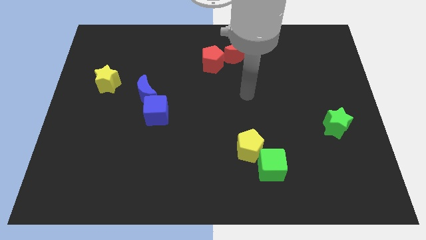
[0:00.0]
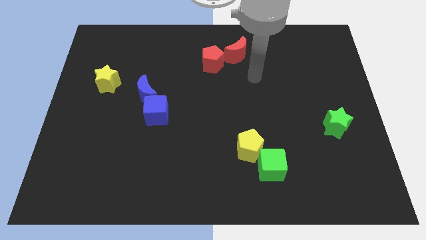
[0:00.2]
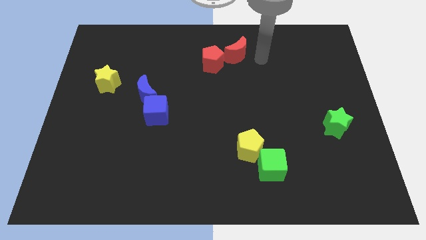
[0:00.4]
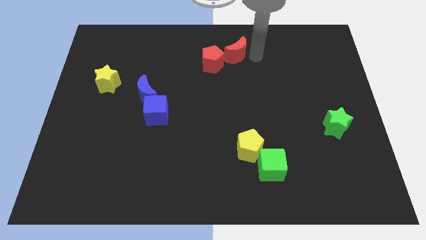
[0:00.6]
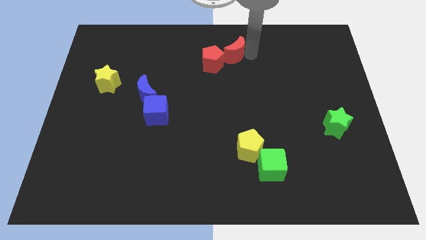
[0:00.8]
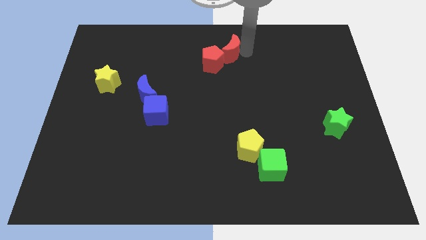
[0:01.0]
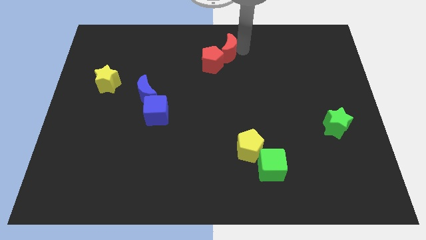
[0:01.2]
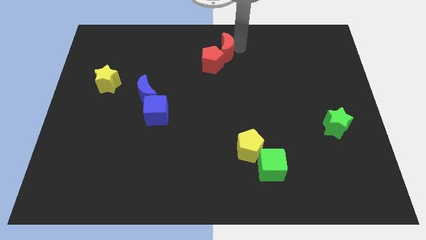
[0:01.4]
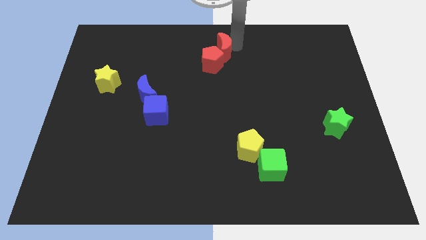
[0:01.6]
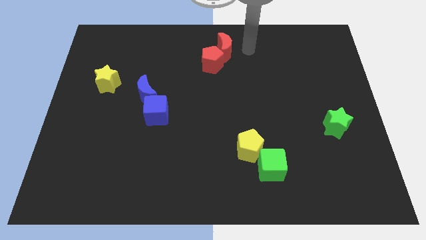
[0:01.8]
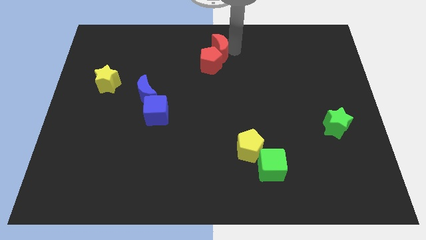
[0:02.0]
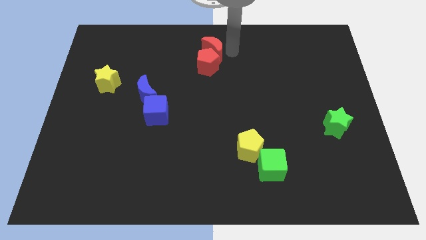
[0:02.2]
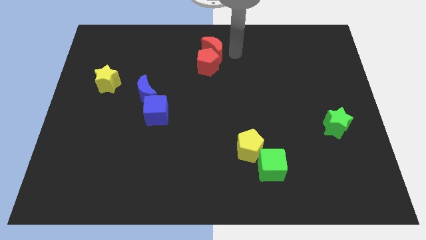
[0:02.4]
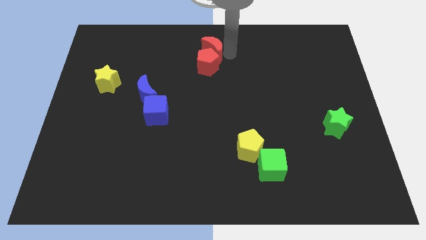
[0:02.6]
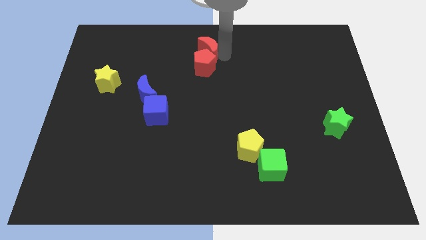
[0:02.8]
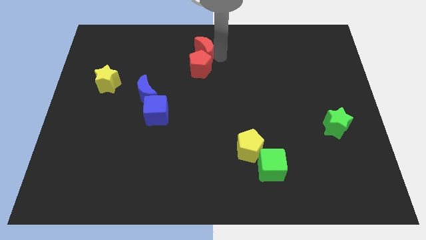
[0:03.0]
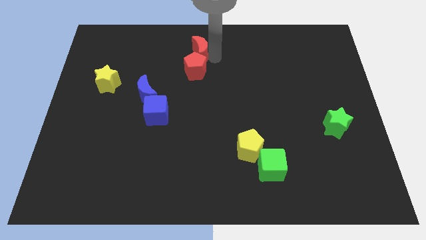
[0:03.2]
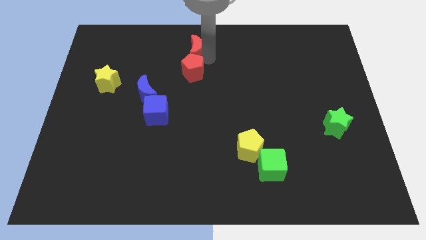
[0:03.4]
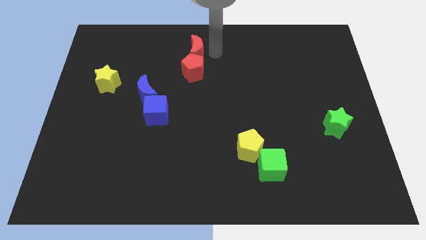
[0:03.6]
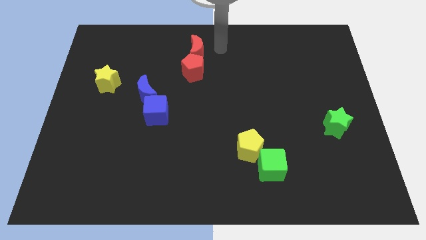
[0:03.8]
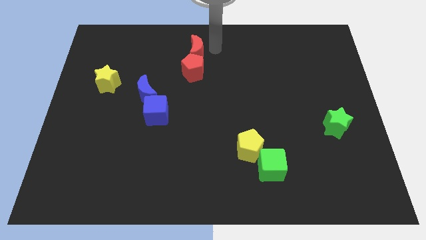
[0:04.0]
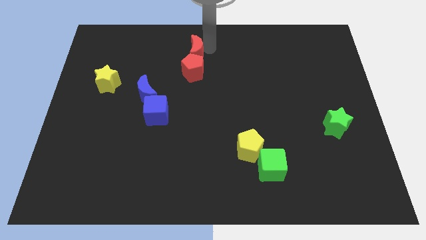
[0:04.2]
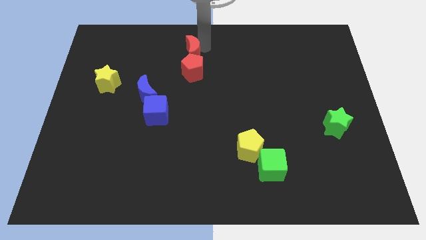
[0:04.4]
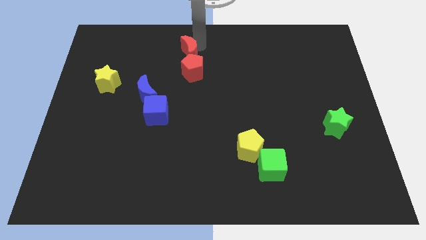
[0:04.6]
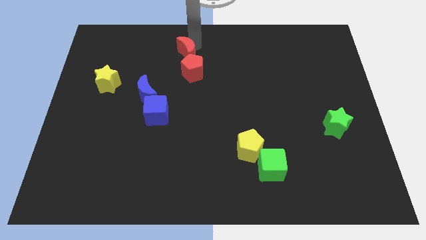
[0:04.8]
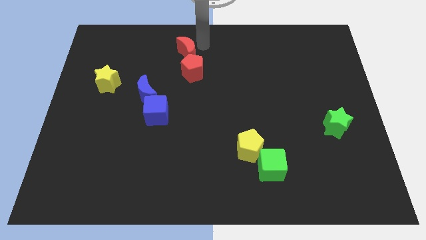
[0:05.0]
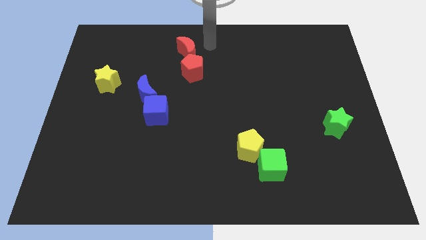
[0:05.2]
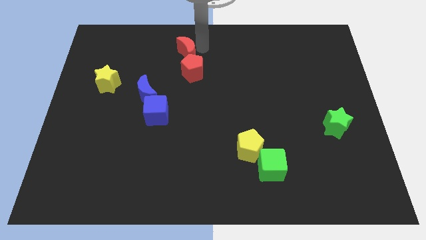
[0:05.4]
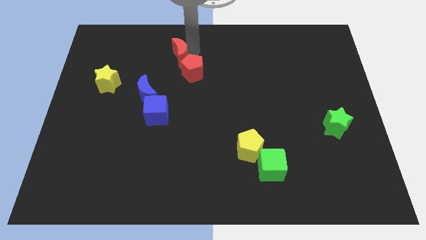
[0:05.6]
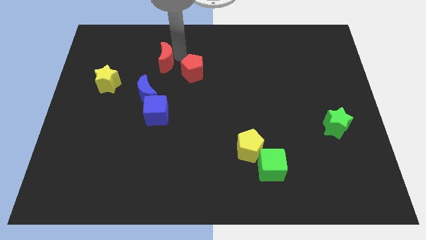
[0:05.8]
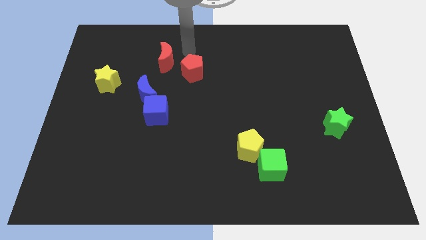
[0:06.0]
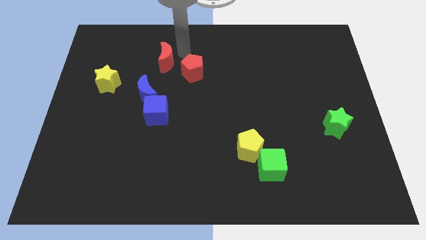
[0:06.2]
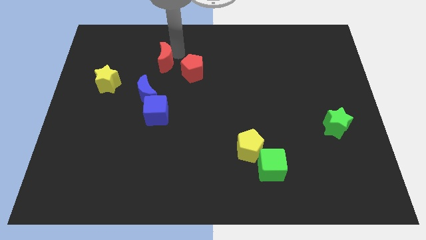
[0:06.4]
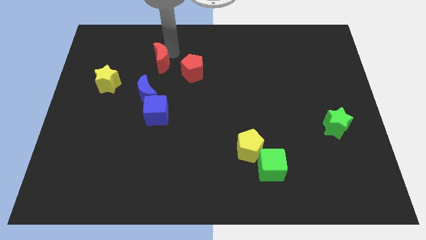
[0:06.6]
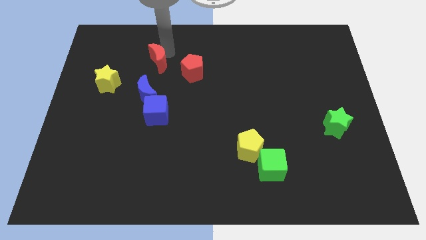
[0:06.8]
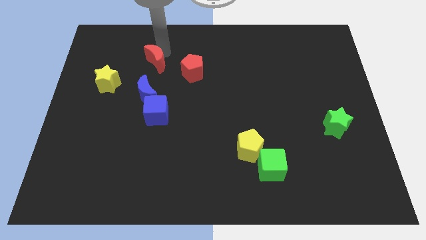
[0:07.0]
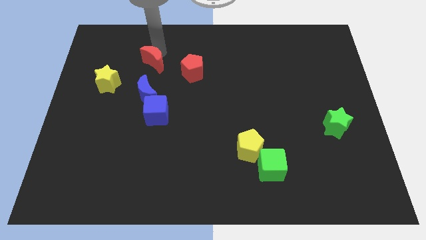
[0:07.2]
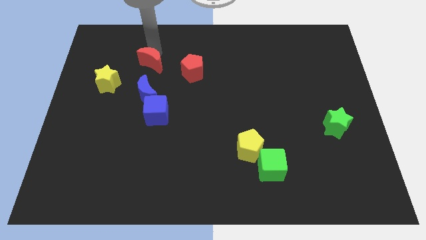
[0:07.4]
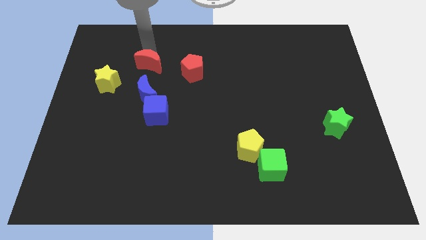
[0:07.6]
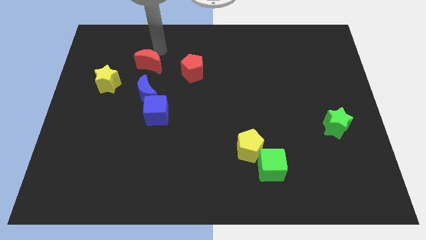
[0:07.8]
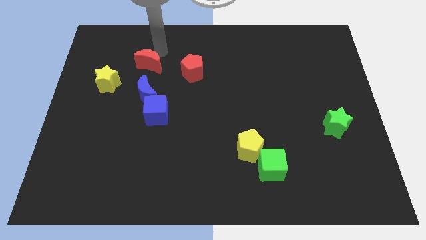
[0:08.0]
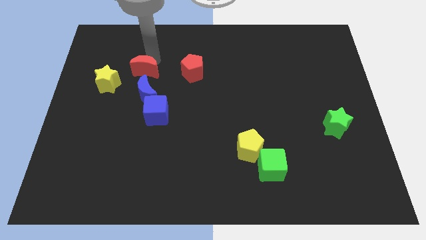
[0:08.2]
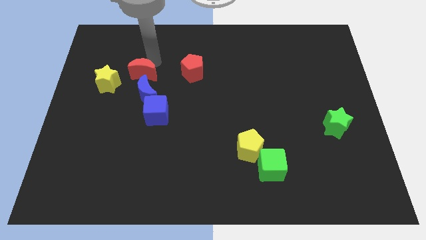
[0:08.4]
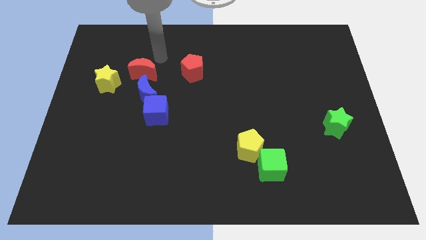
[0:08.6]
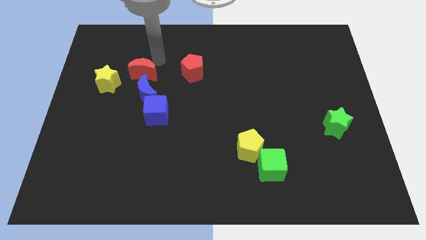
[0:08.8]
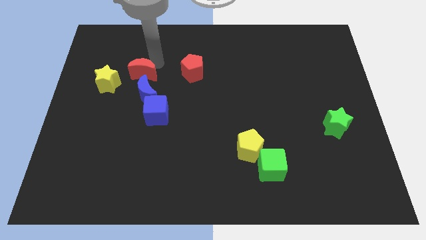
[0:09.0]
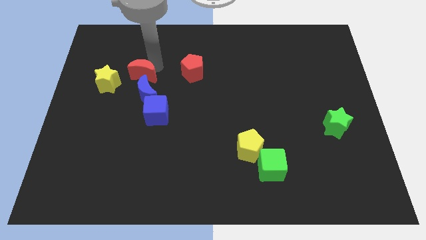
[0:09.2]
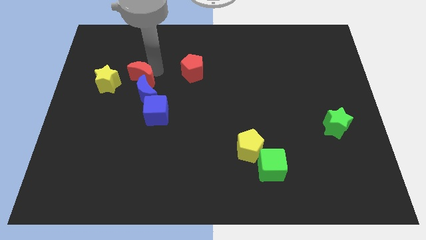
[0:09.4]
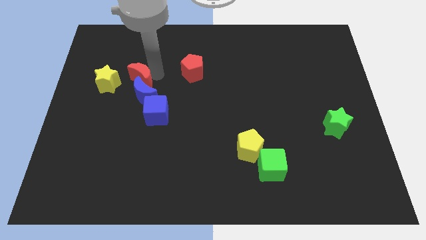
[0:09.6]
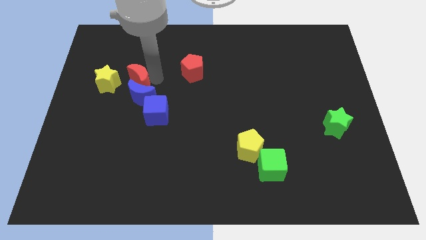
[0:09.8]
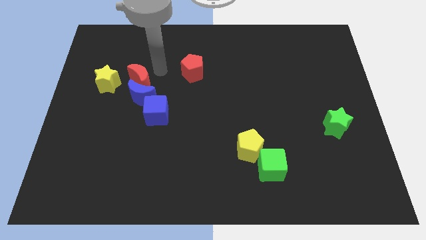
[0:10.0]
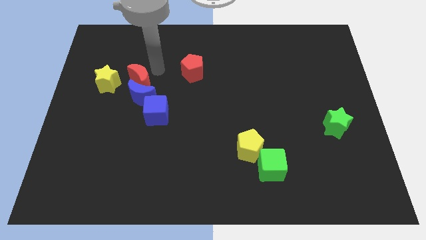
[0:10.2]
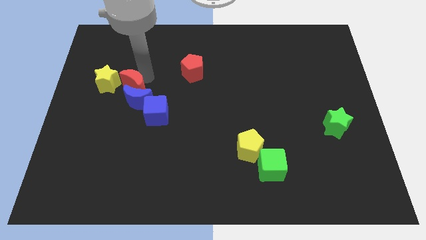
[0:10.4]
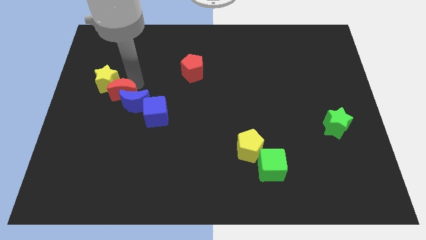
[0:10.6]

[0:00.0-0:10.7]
put the red moon to the bottom of the yellow star

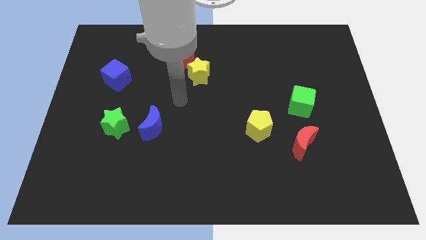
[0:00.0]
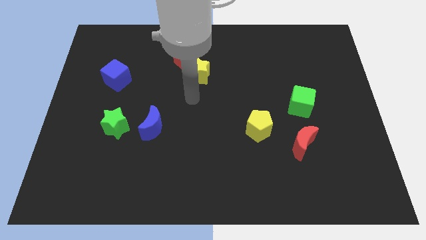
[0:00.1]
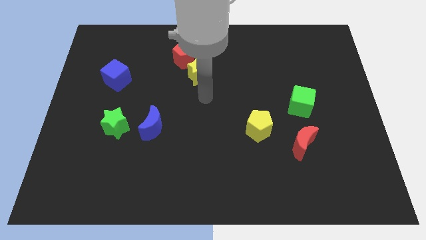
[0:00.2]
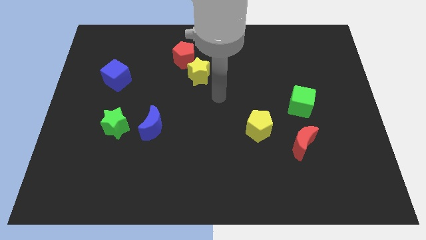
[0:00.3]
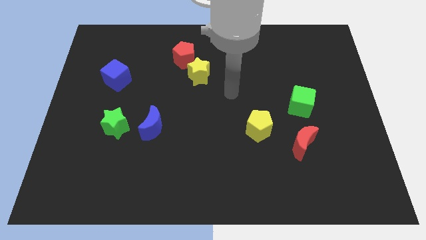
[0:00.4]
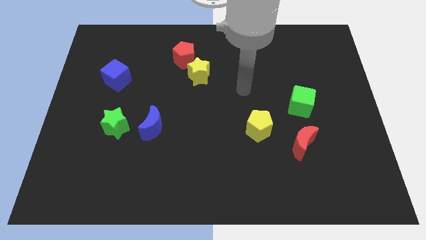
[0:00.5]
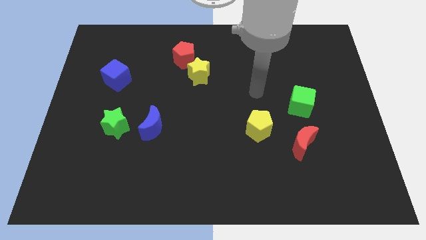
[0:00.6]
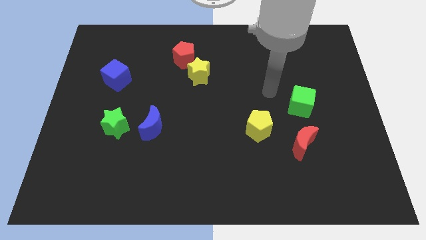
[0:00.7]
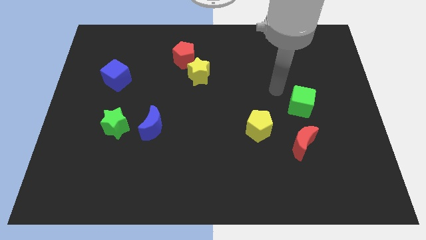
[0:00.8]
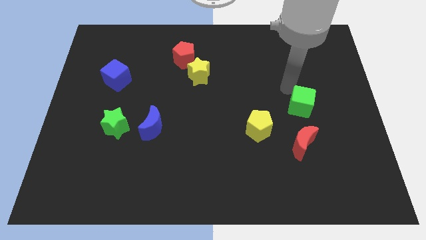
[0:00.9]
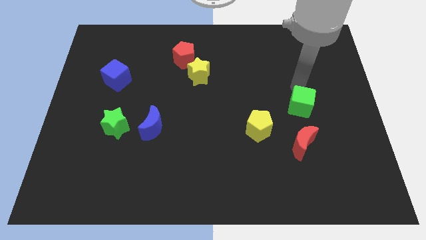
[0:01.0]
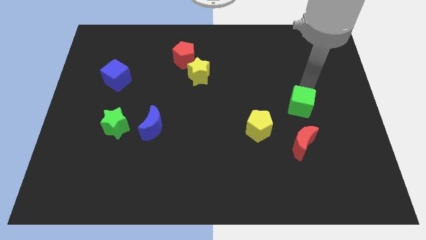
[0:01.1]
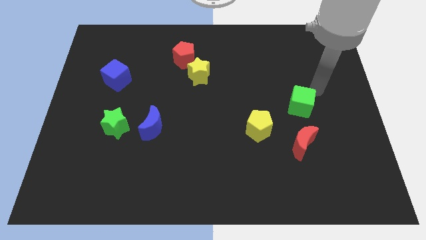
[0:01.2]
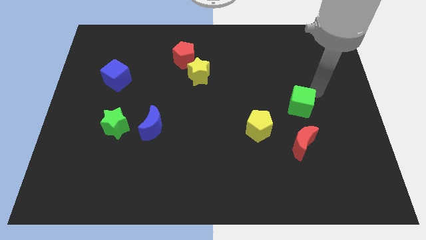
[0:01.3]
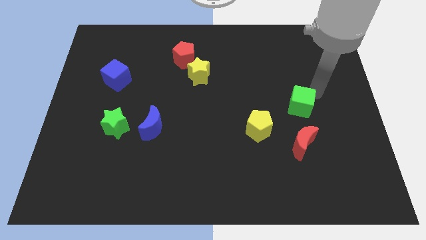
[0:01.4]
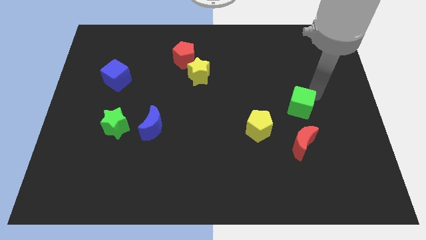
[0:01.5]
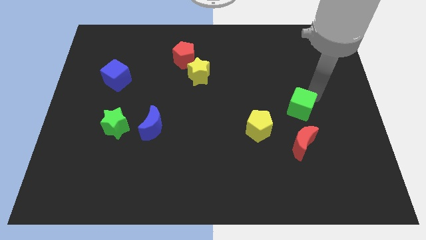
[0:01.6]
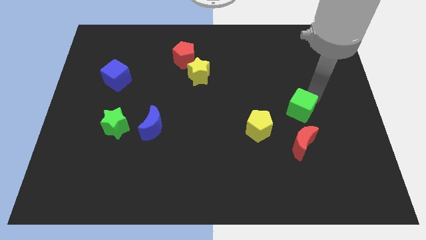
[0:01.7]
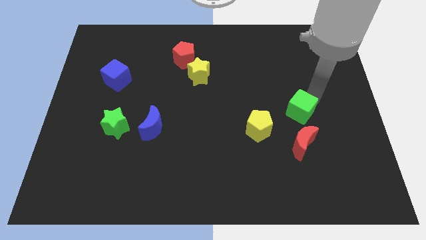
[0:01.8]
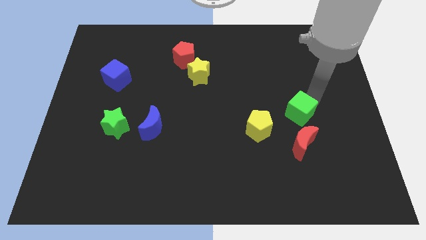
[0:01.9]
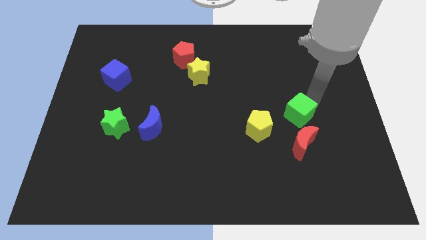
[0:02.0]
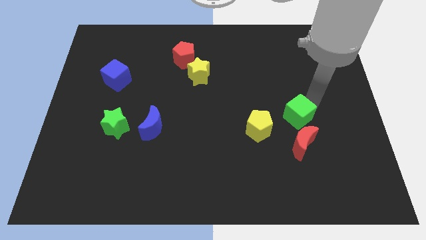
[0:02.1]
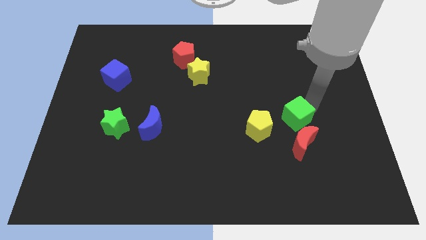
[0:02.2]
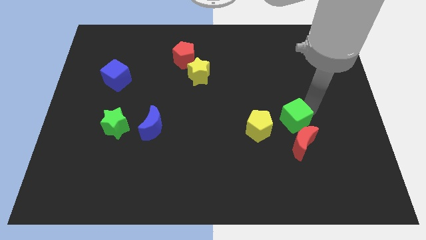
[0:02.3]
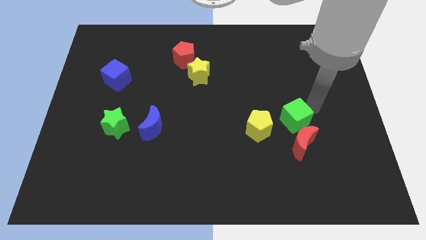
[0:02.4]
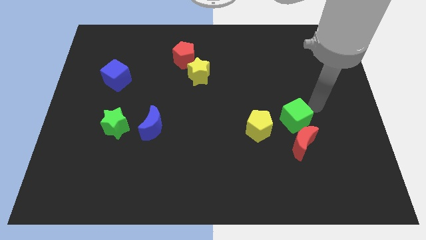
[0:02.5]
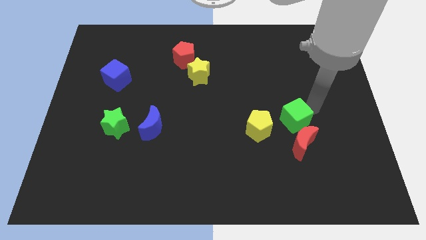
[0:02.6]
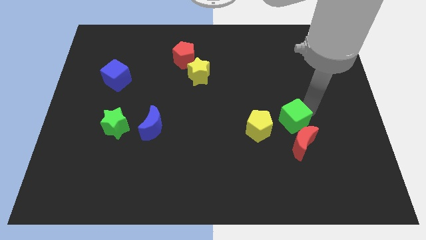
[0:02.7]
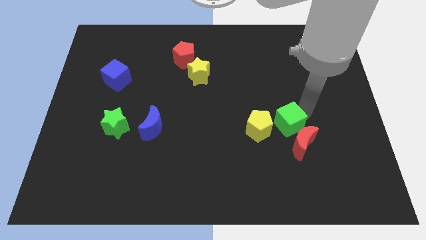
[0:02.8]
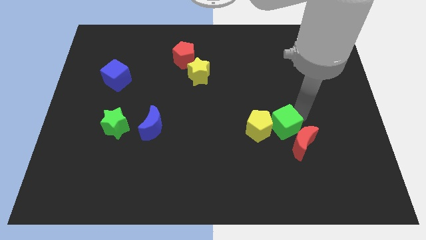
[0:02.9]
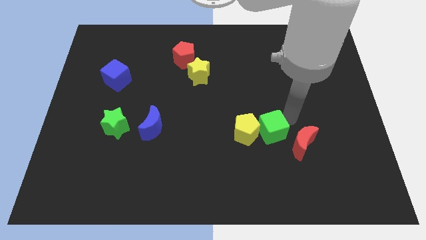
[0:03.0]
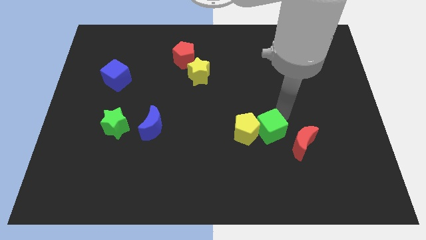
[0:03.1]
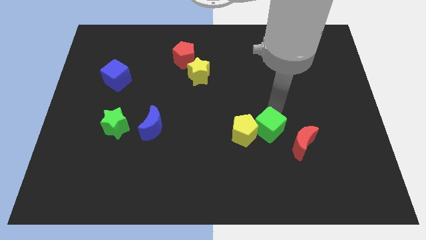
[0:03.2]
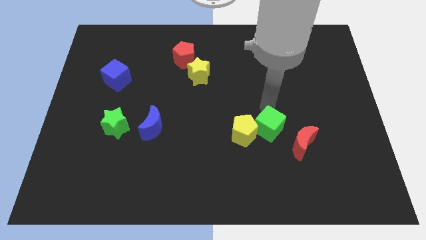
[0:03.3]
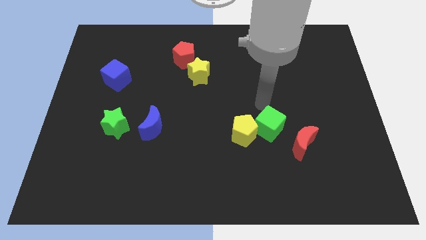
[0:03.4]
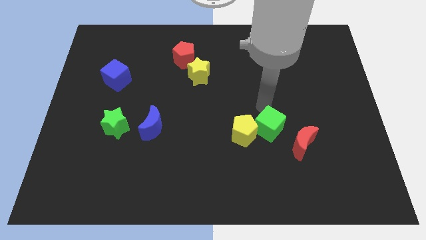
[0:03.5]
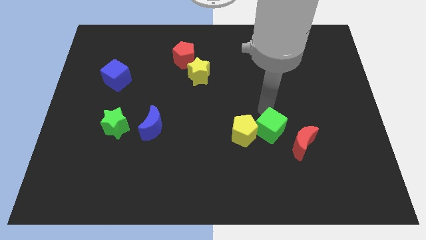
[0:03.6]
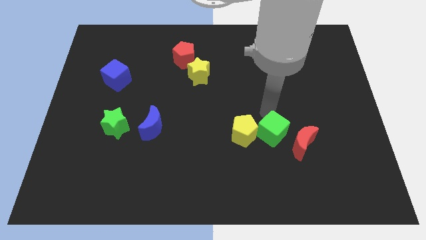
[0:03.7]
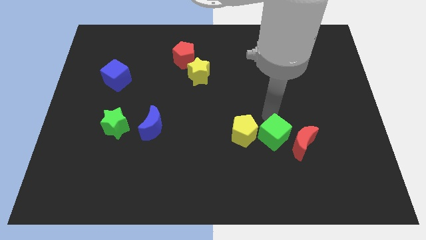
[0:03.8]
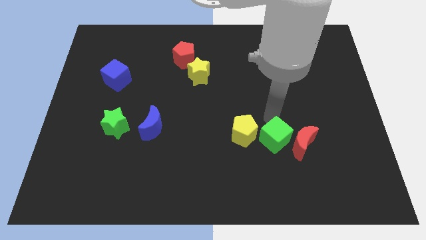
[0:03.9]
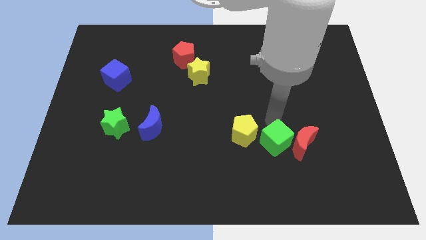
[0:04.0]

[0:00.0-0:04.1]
move the green cube to the bottom left side of the red moon
